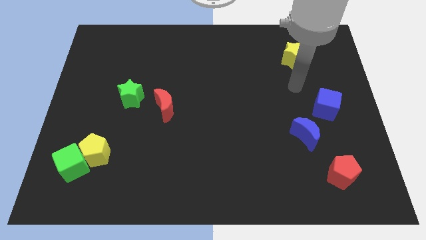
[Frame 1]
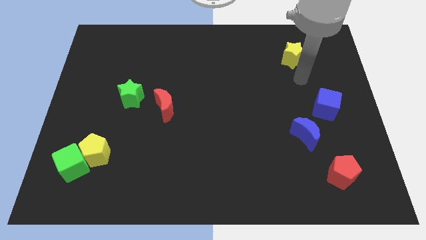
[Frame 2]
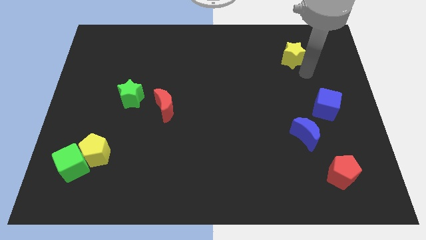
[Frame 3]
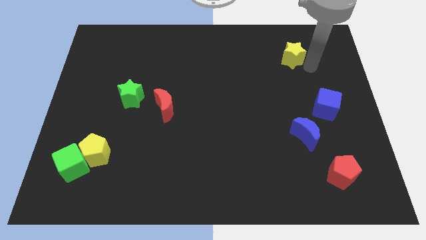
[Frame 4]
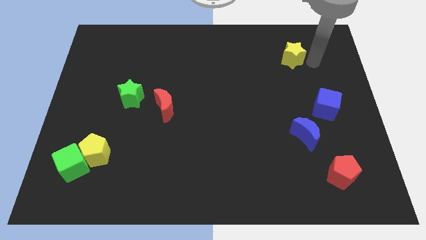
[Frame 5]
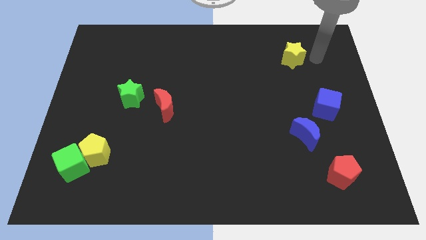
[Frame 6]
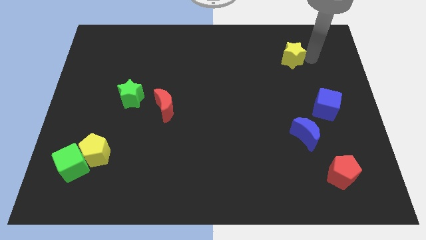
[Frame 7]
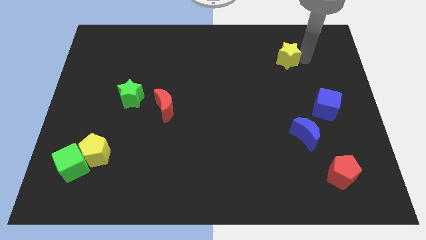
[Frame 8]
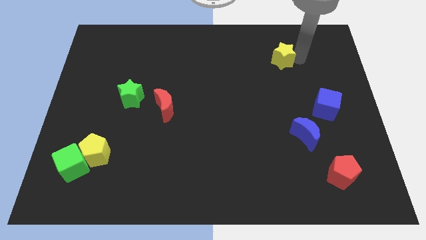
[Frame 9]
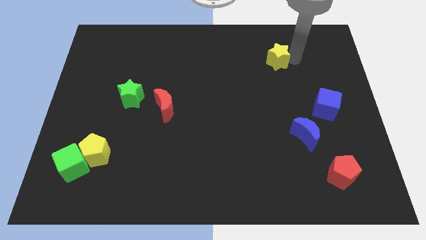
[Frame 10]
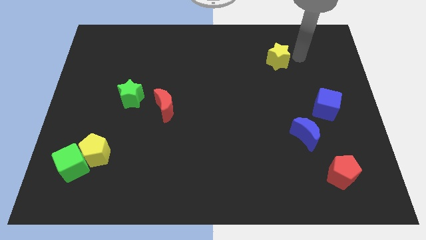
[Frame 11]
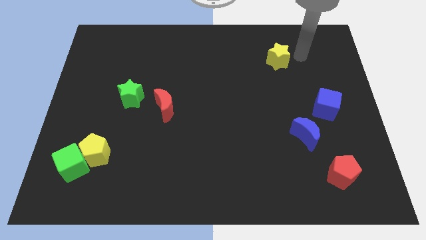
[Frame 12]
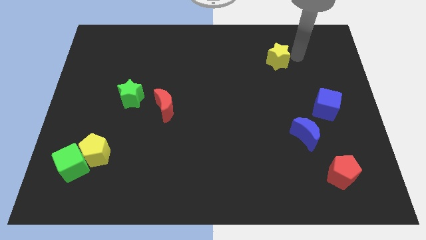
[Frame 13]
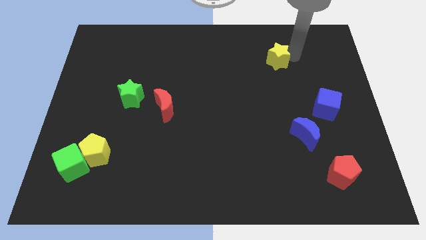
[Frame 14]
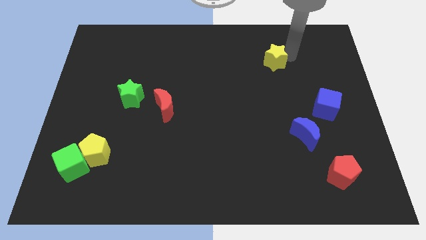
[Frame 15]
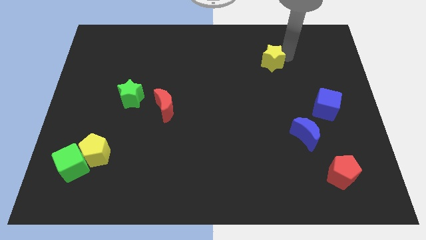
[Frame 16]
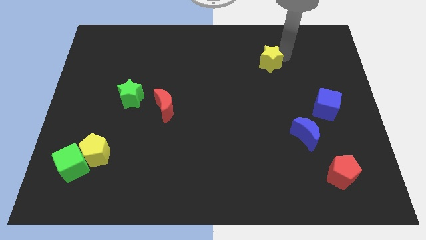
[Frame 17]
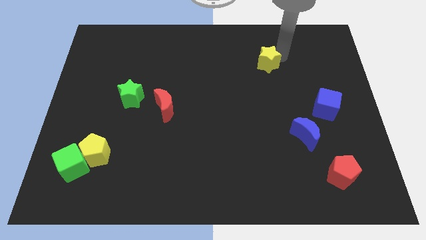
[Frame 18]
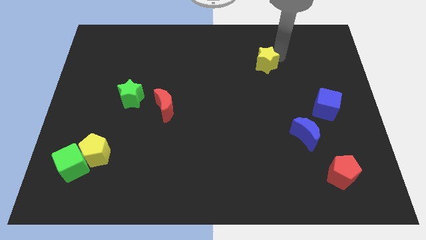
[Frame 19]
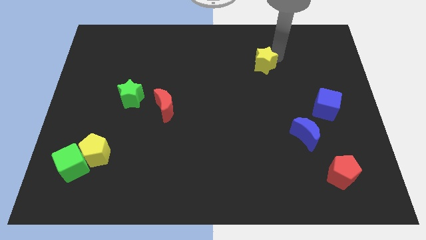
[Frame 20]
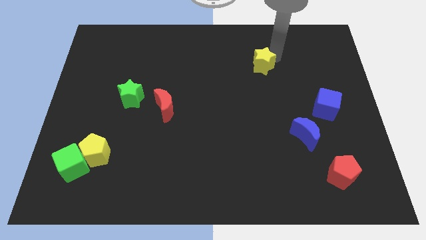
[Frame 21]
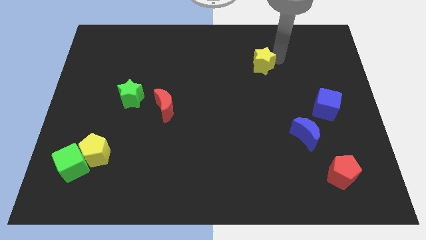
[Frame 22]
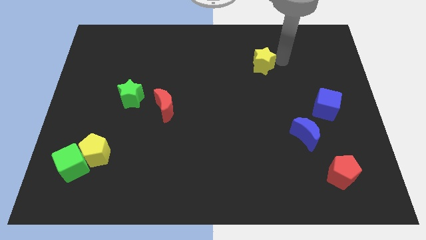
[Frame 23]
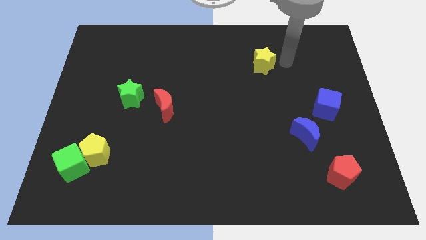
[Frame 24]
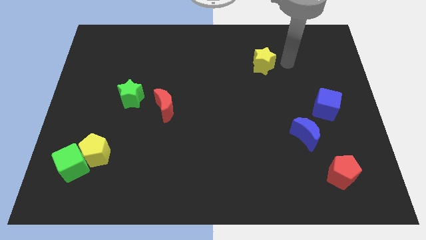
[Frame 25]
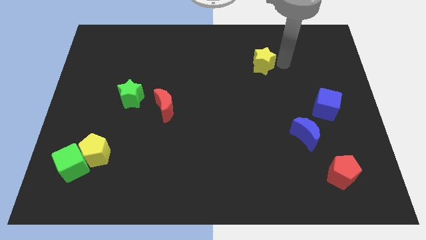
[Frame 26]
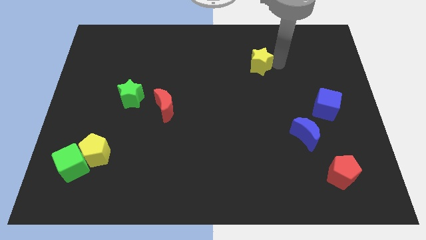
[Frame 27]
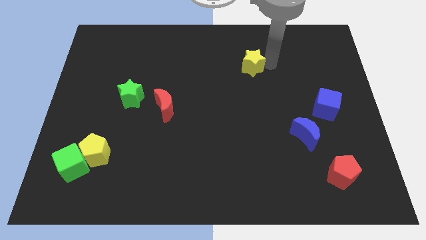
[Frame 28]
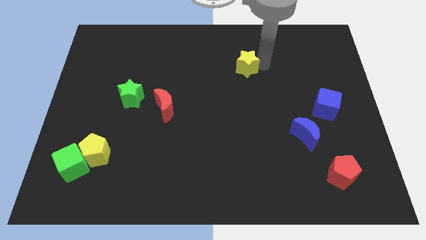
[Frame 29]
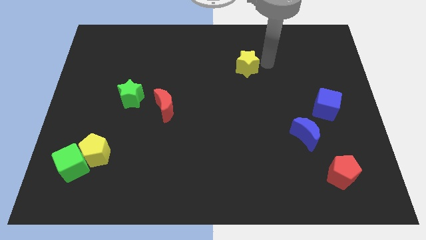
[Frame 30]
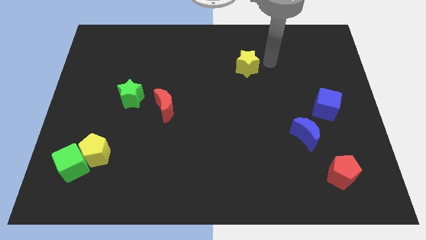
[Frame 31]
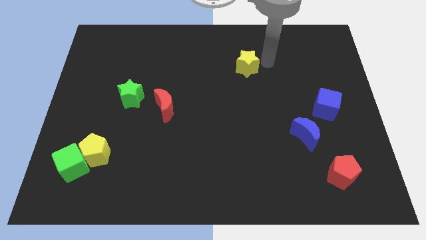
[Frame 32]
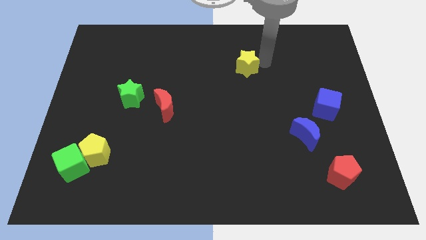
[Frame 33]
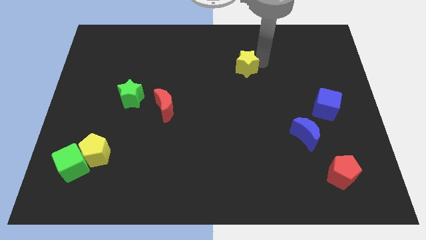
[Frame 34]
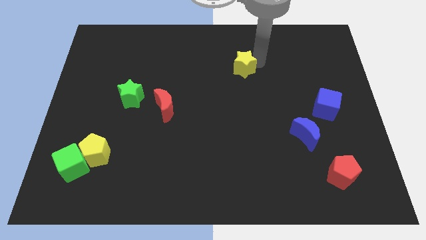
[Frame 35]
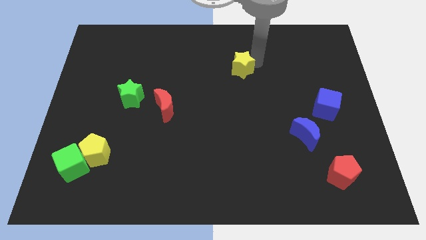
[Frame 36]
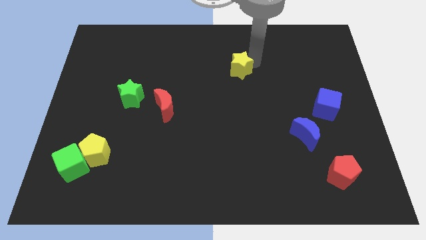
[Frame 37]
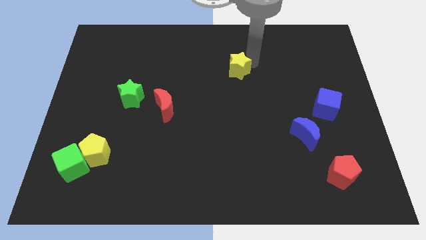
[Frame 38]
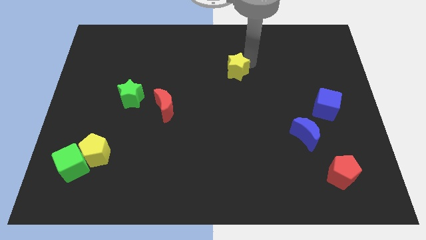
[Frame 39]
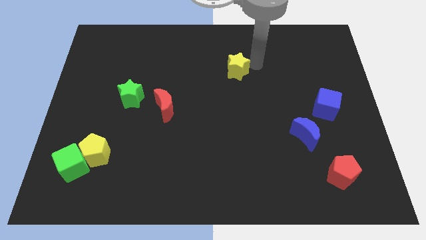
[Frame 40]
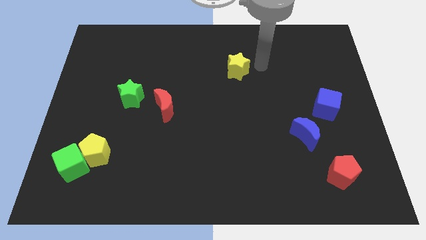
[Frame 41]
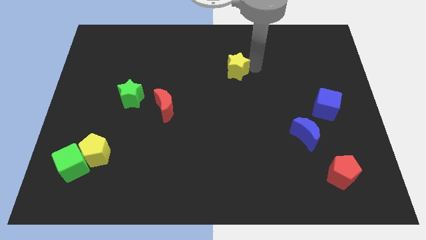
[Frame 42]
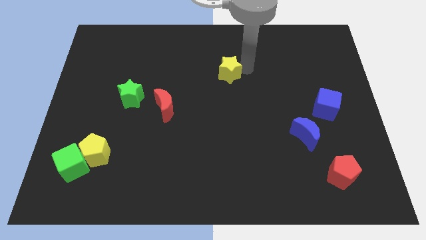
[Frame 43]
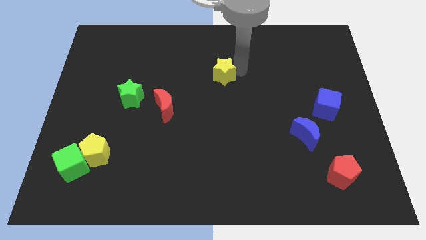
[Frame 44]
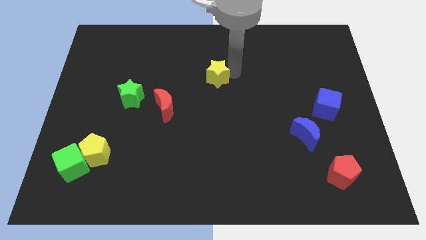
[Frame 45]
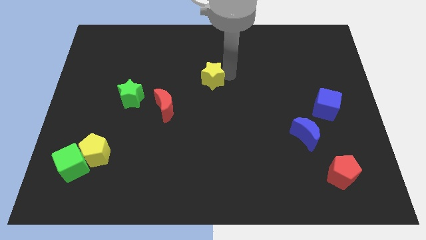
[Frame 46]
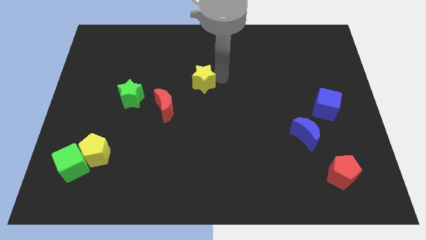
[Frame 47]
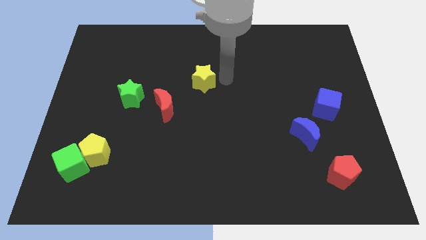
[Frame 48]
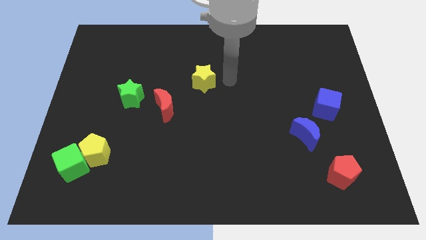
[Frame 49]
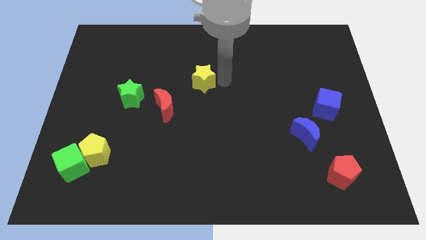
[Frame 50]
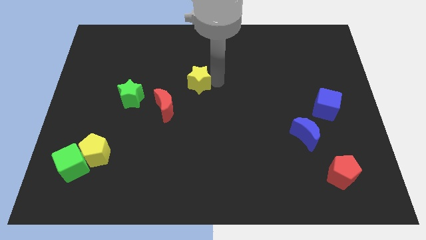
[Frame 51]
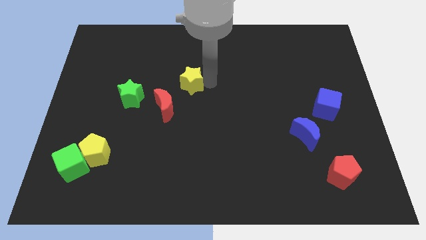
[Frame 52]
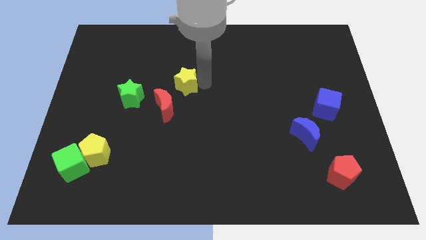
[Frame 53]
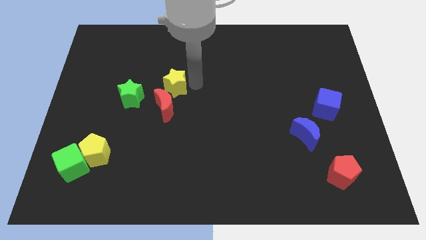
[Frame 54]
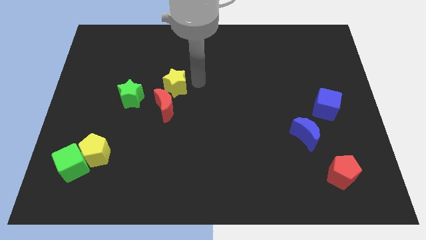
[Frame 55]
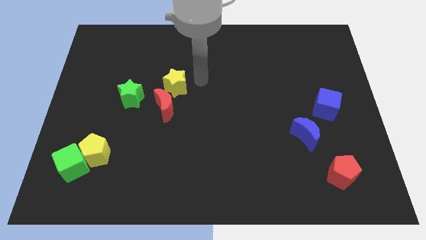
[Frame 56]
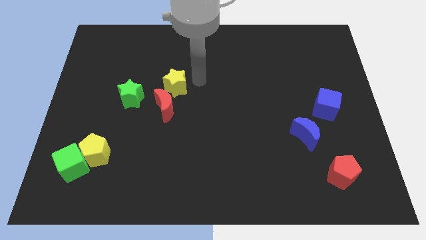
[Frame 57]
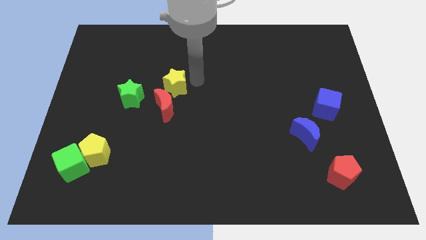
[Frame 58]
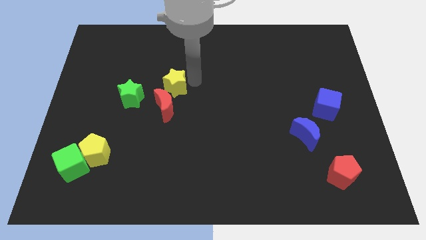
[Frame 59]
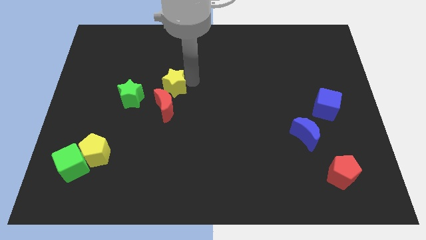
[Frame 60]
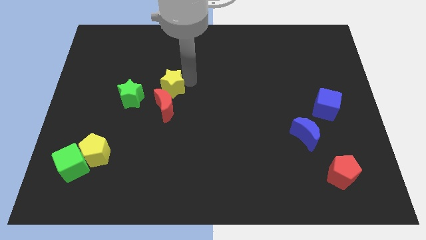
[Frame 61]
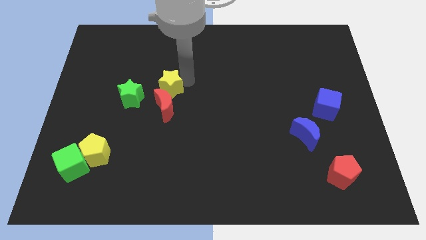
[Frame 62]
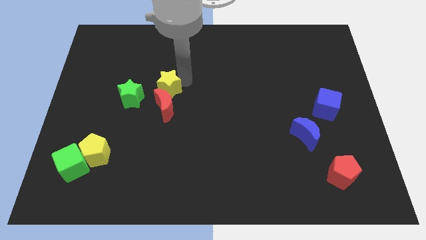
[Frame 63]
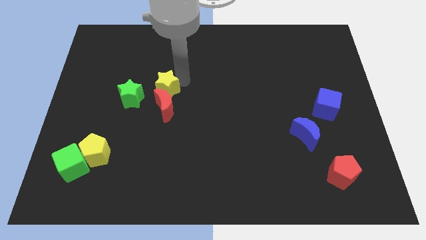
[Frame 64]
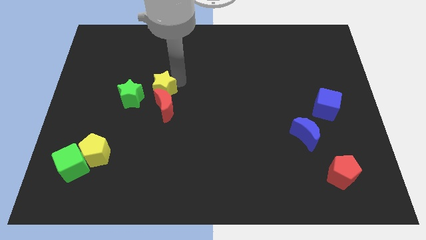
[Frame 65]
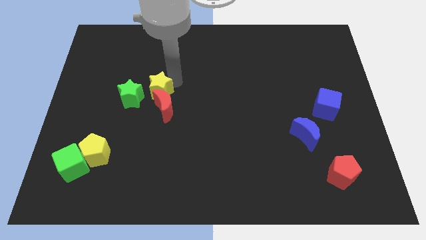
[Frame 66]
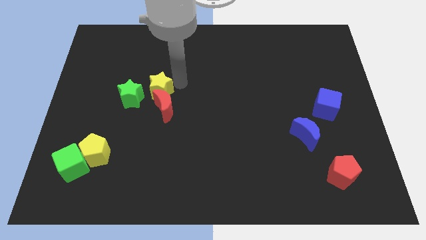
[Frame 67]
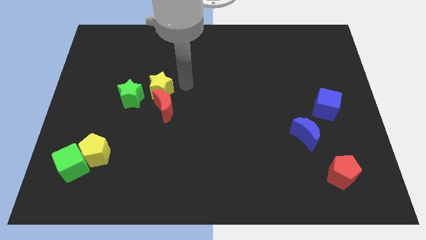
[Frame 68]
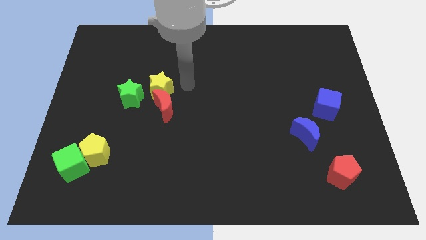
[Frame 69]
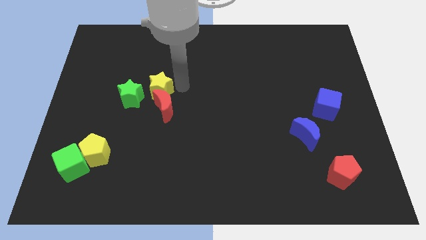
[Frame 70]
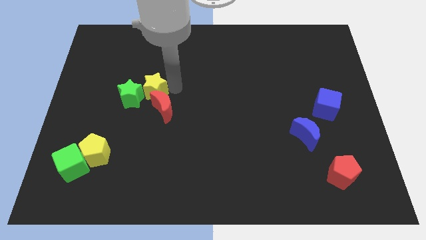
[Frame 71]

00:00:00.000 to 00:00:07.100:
move the yellow star towards the green star
